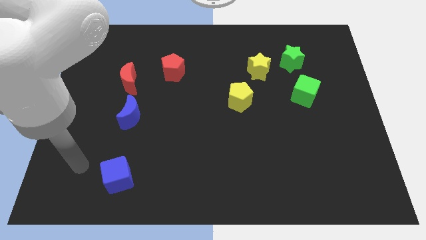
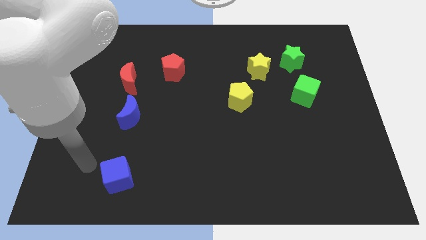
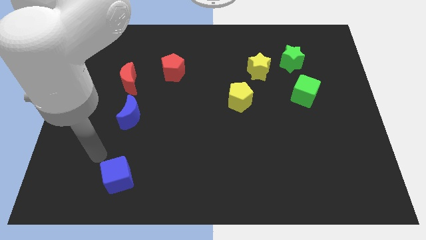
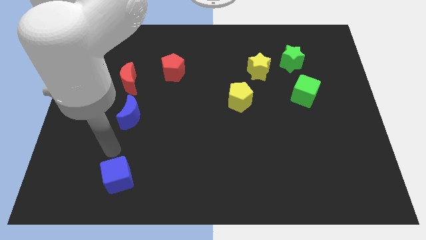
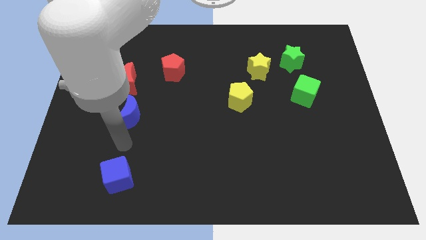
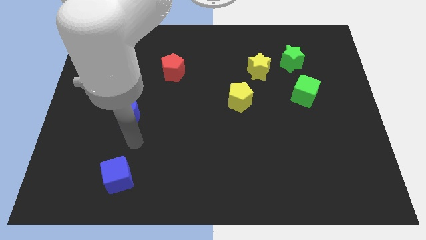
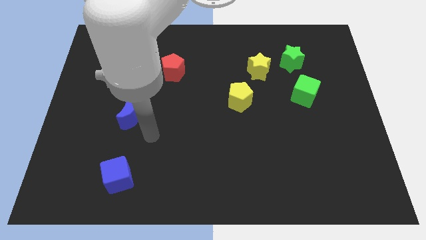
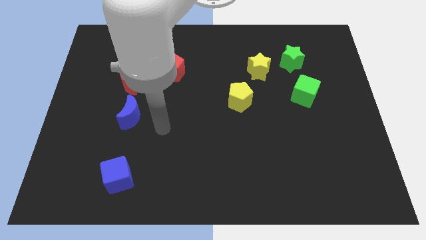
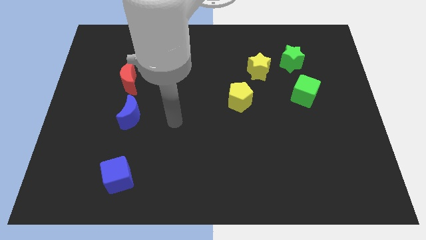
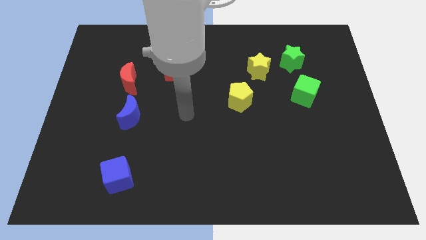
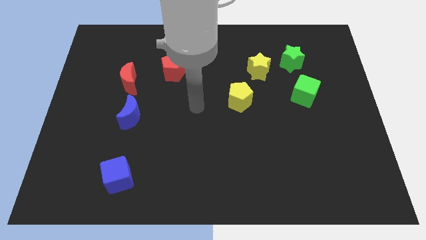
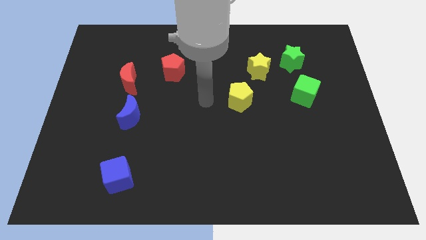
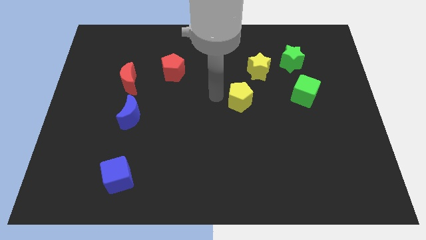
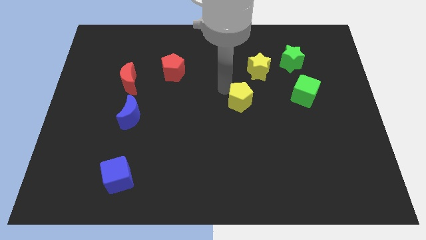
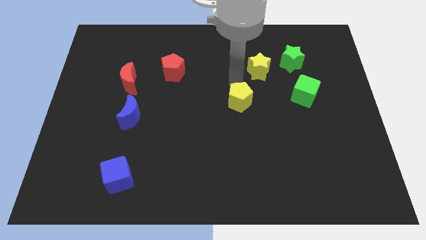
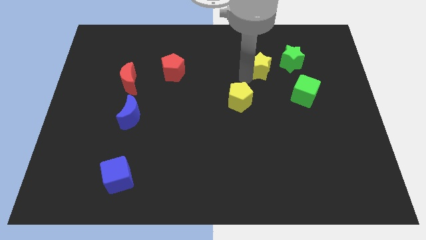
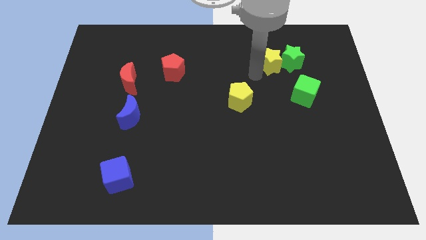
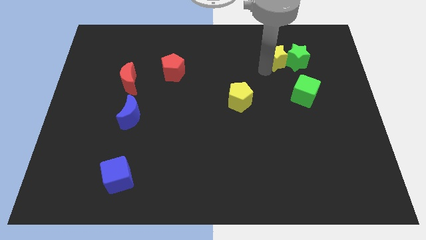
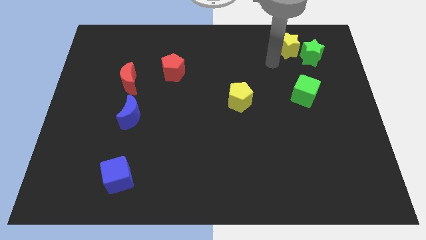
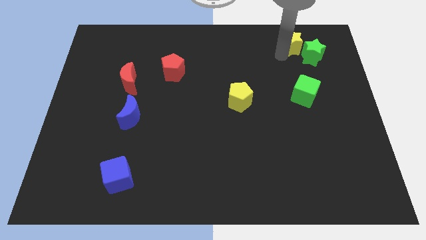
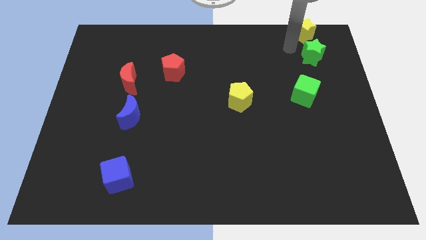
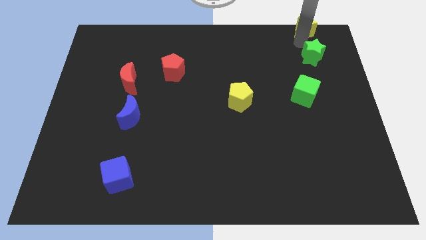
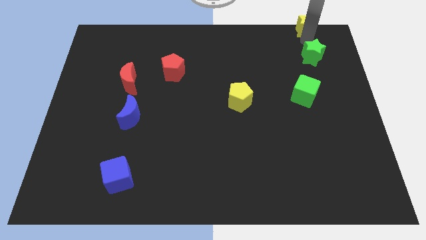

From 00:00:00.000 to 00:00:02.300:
pull the green star apart from the yellow star

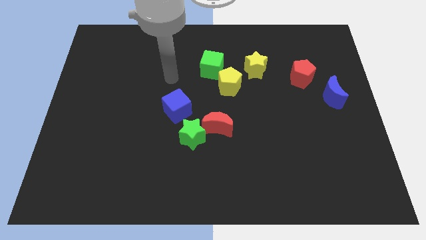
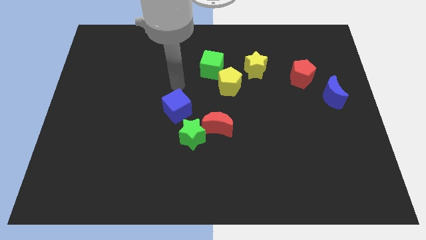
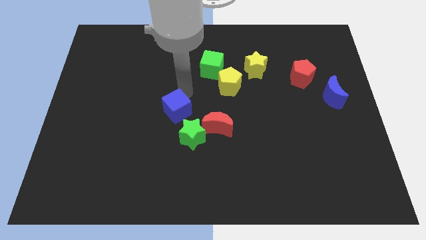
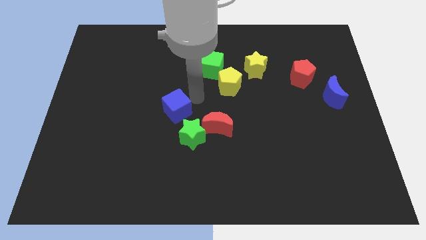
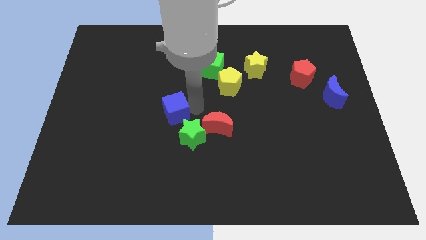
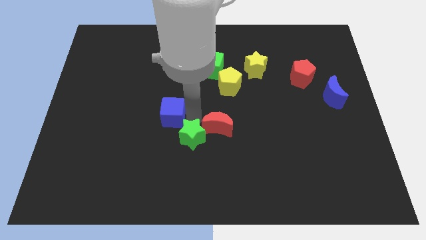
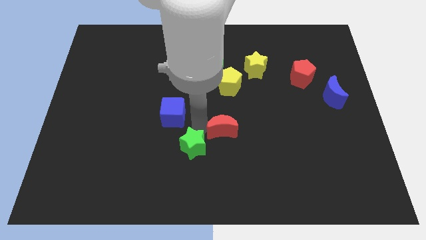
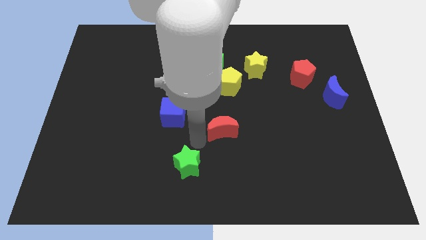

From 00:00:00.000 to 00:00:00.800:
move the red moon away from the green star

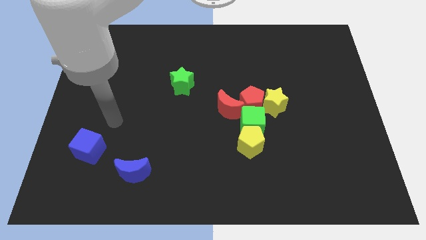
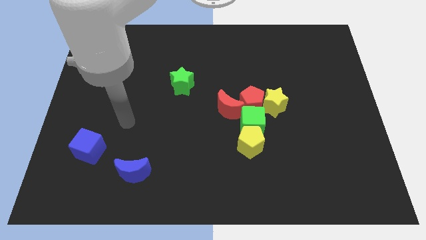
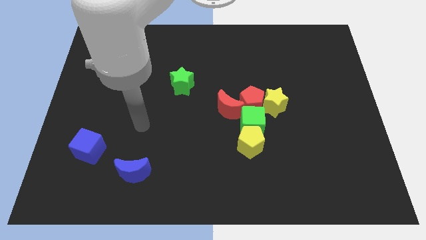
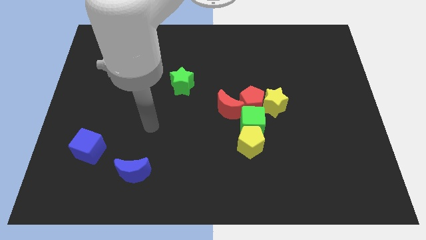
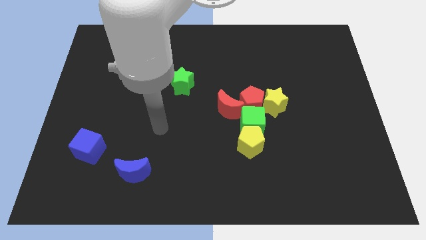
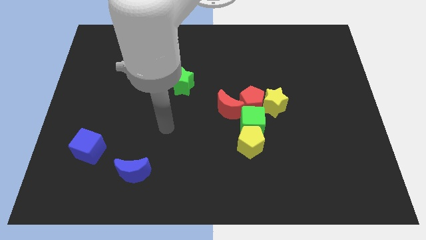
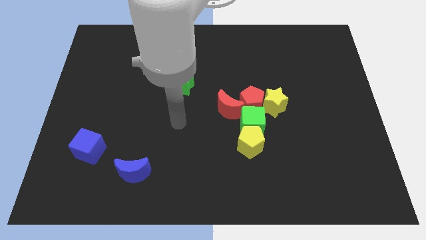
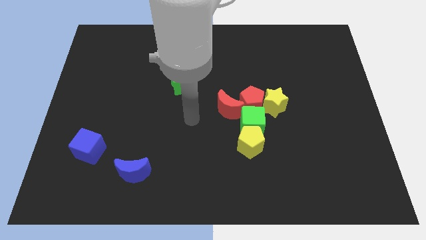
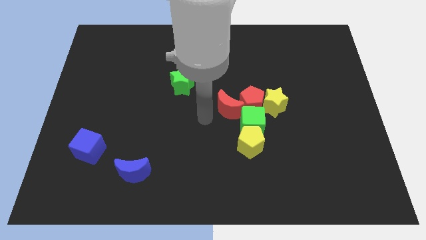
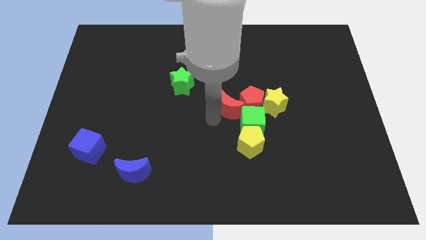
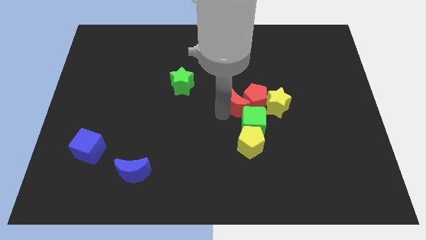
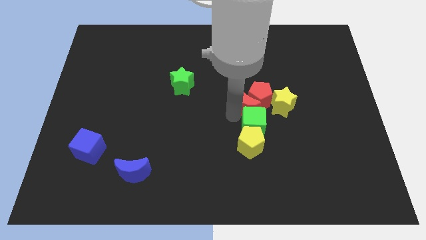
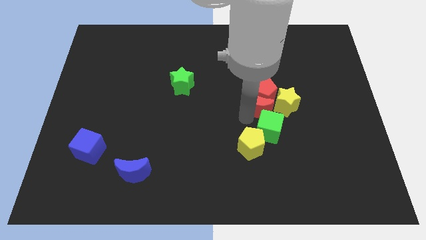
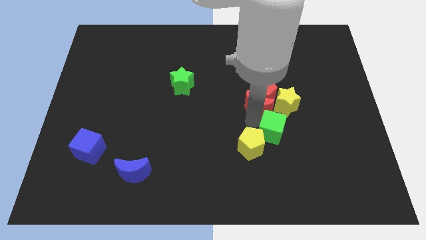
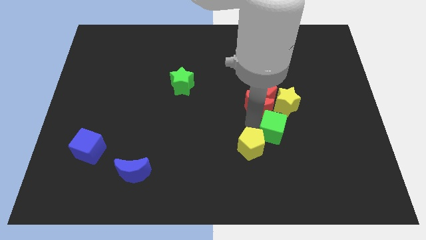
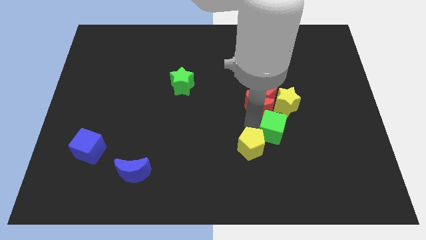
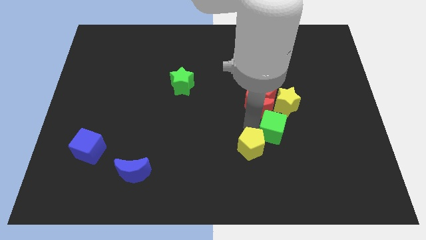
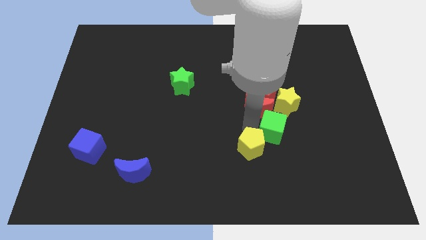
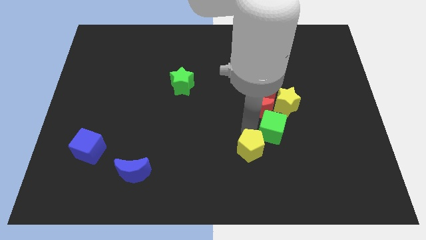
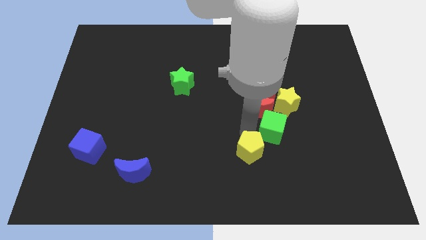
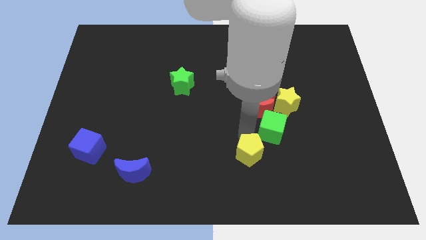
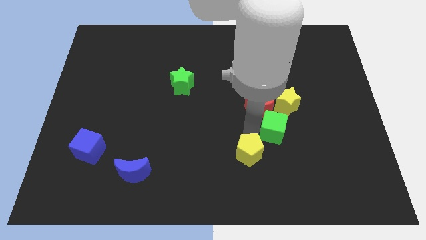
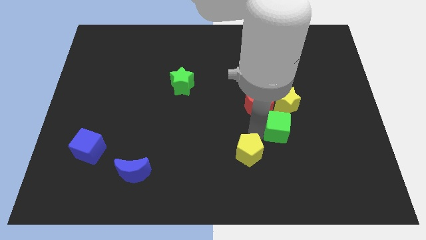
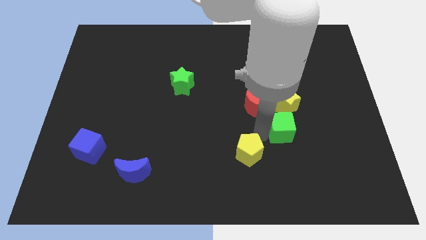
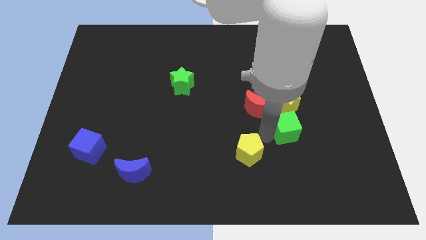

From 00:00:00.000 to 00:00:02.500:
move the yellow pentagon away from the green cube

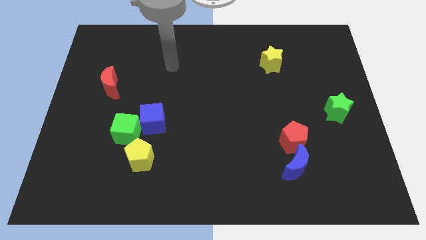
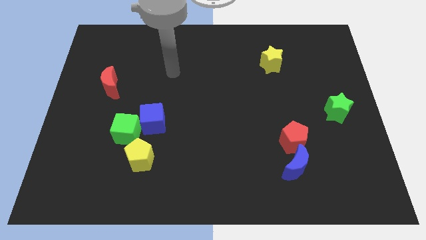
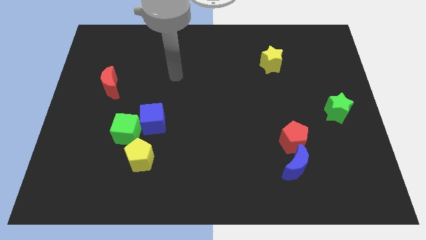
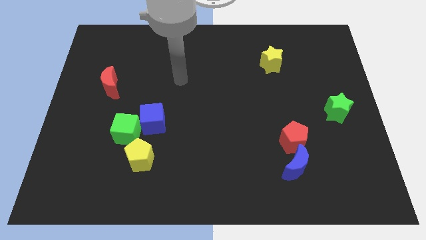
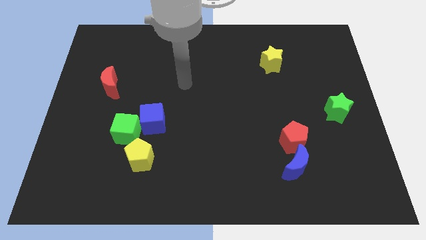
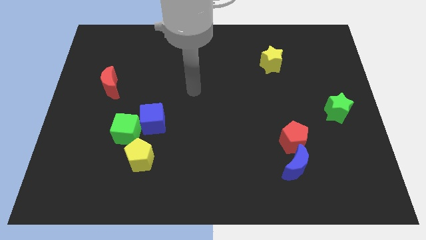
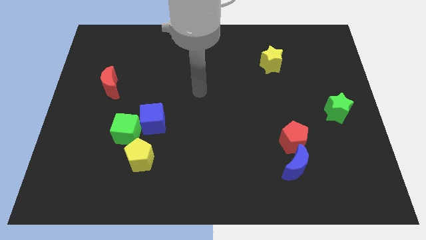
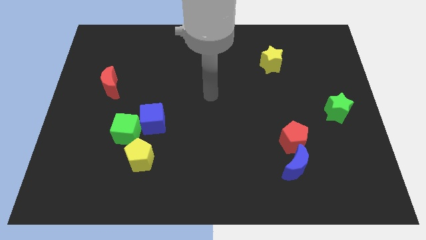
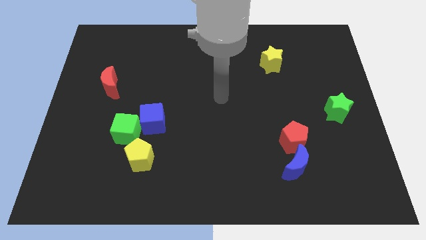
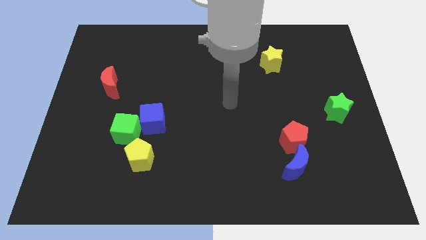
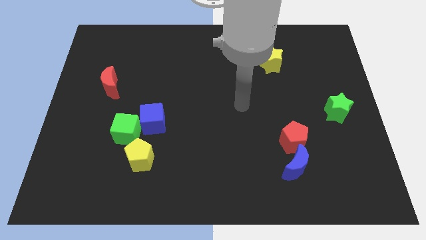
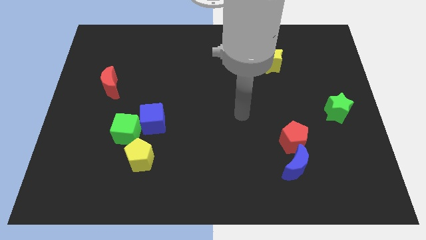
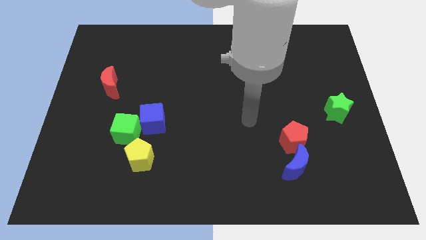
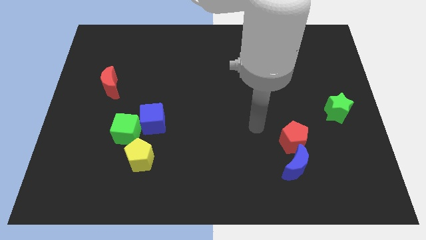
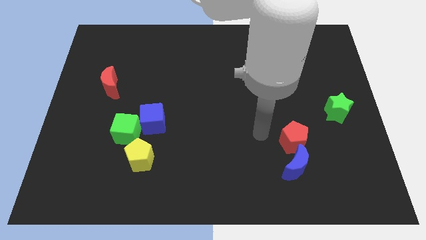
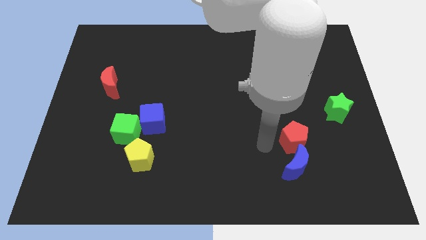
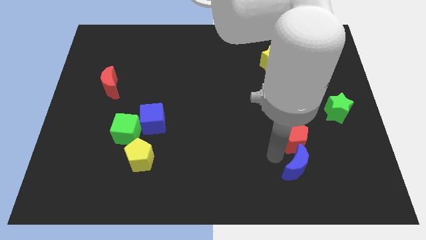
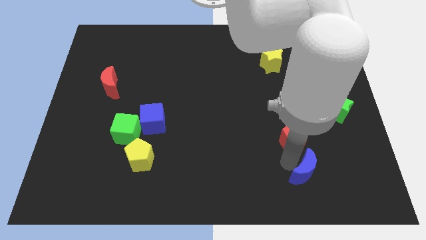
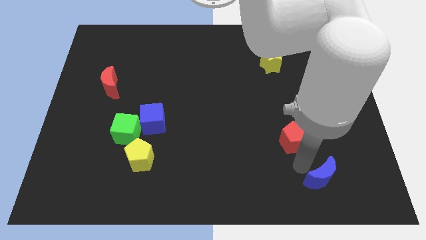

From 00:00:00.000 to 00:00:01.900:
separate the red pentagon from the blue moon

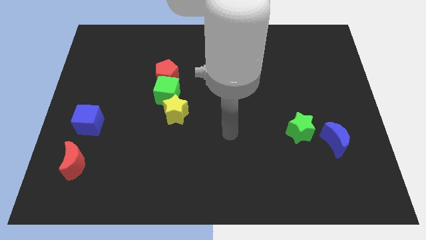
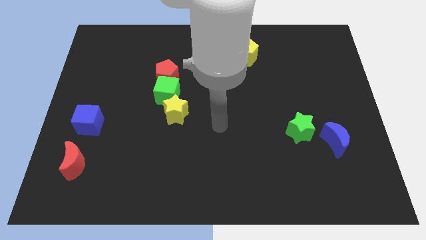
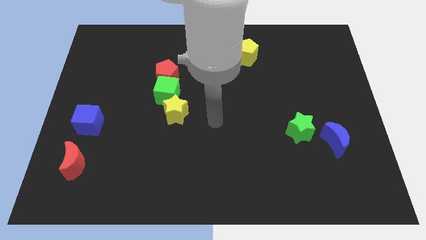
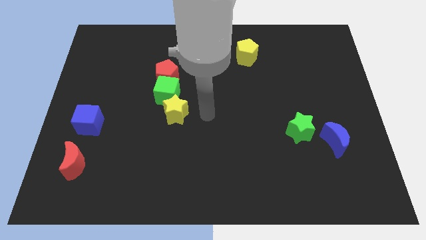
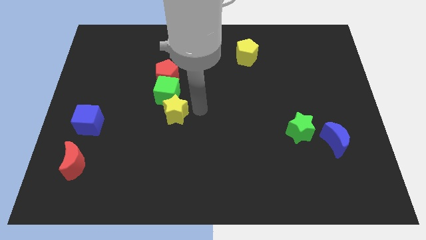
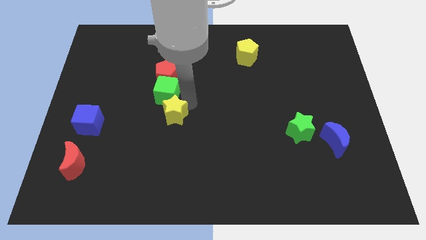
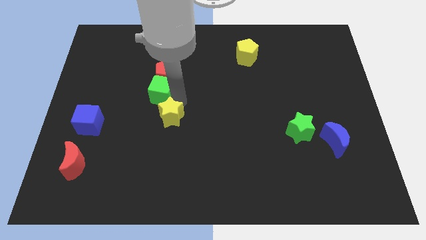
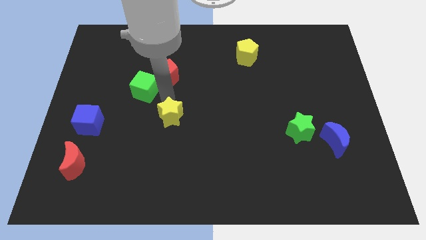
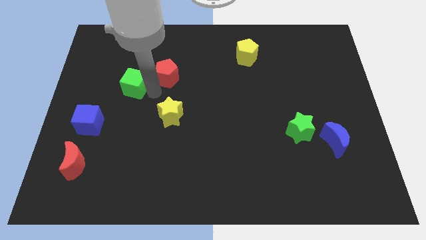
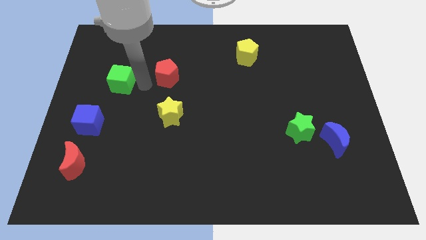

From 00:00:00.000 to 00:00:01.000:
separate the red pentagon from the green cube

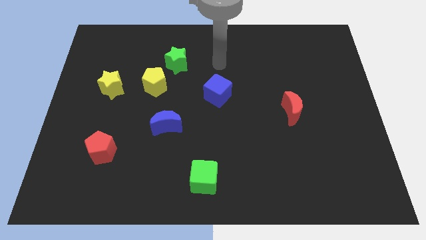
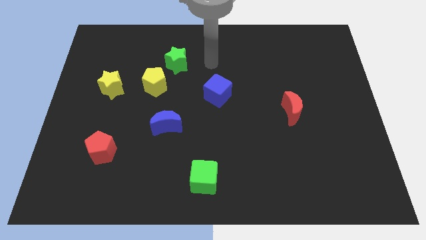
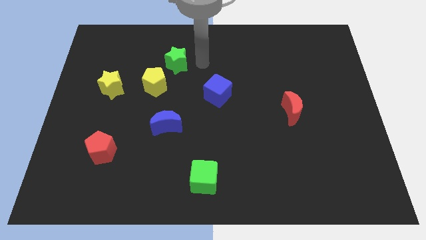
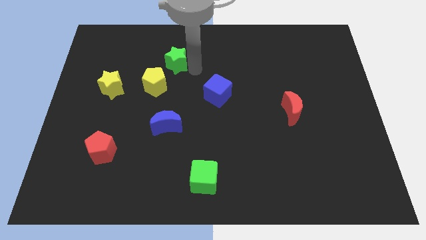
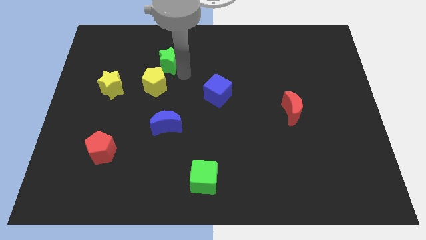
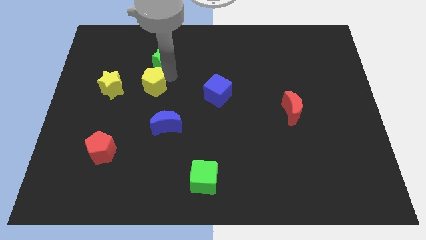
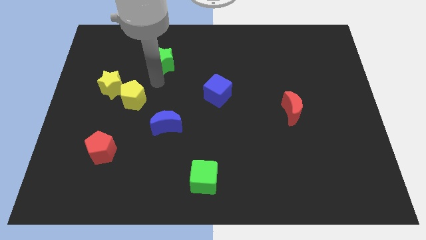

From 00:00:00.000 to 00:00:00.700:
move the green star away from the yellow pentagon
